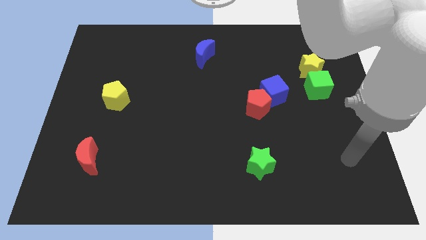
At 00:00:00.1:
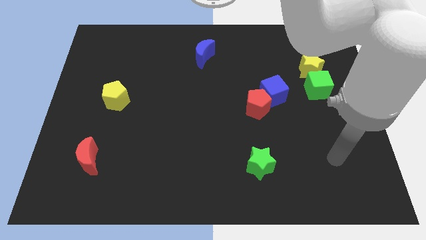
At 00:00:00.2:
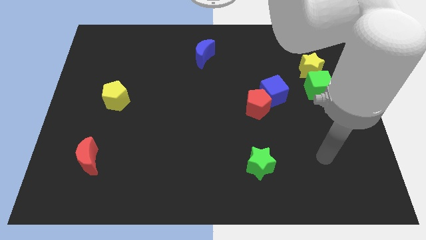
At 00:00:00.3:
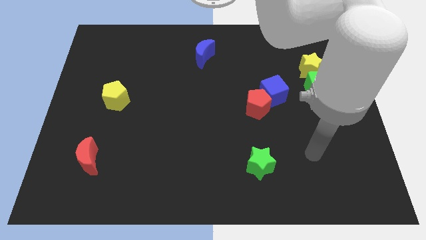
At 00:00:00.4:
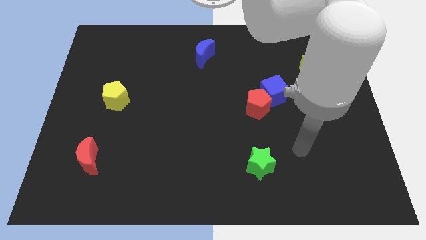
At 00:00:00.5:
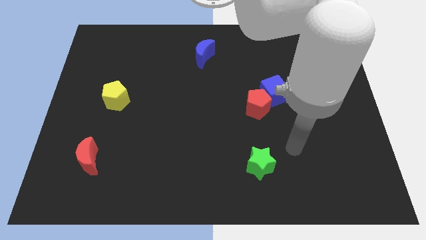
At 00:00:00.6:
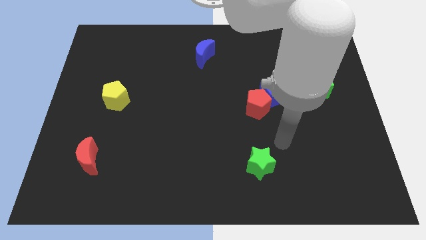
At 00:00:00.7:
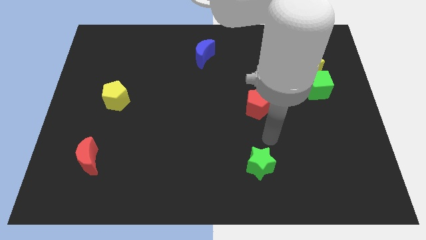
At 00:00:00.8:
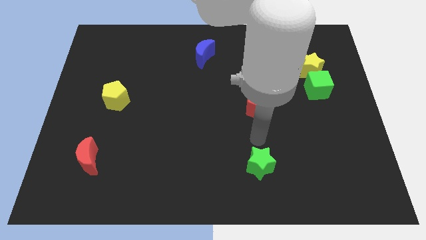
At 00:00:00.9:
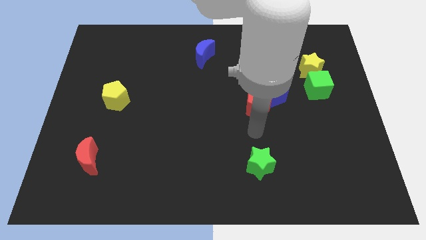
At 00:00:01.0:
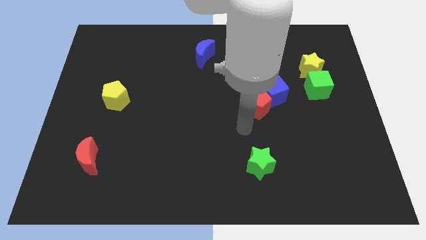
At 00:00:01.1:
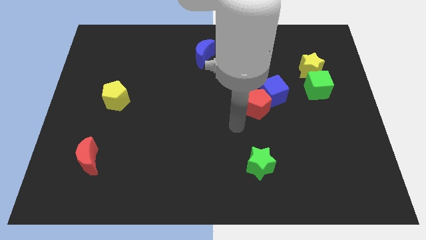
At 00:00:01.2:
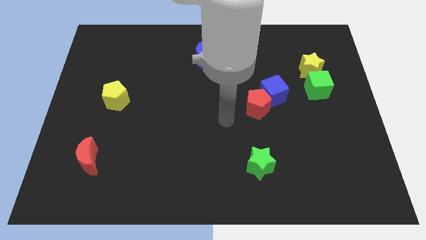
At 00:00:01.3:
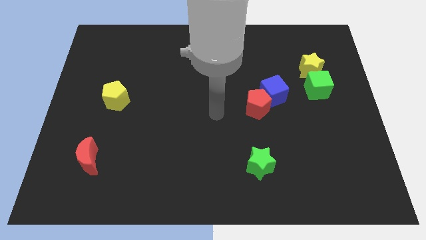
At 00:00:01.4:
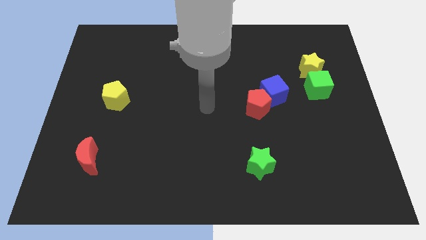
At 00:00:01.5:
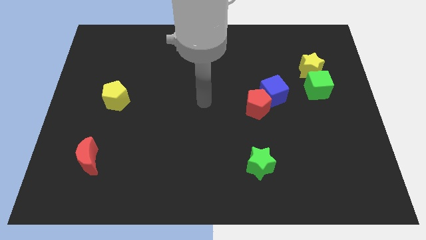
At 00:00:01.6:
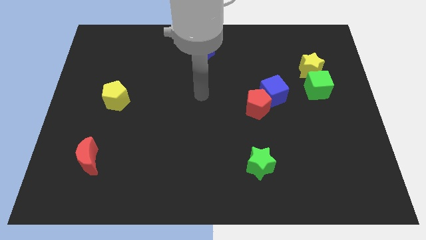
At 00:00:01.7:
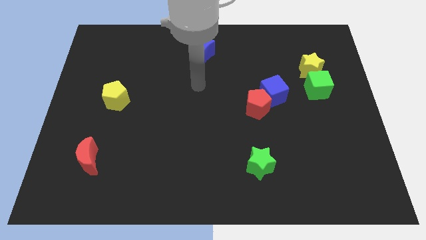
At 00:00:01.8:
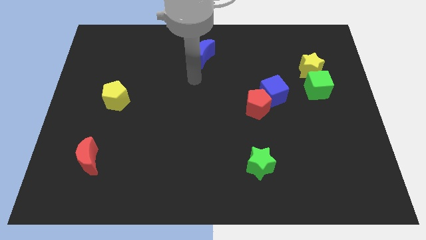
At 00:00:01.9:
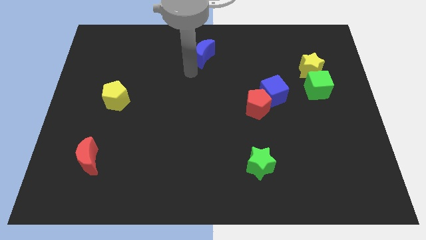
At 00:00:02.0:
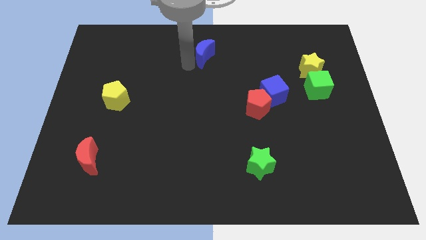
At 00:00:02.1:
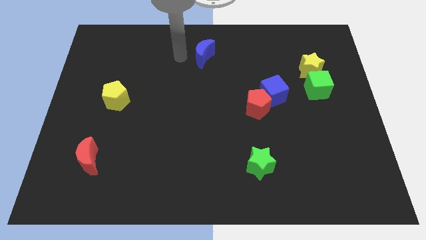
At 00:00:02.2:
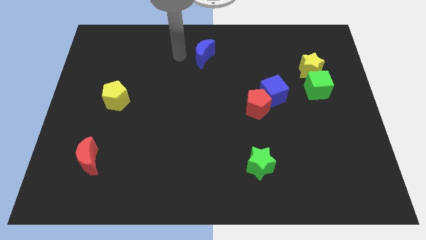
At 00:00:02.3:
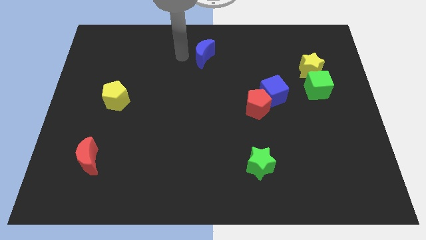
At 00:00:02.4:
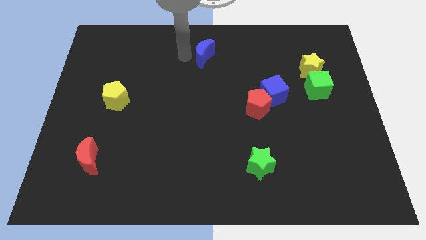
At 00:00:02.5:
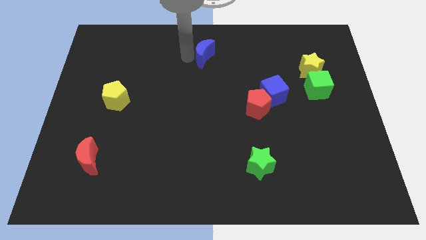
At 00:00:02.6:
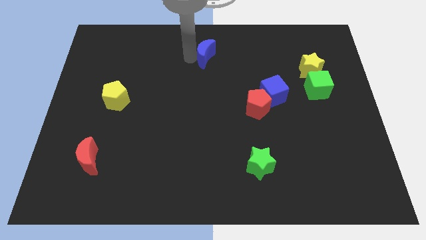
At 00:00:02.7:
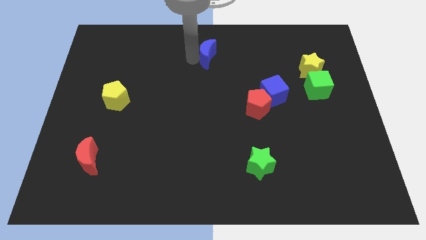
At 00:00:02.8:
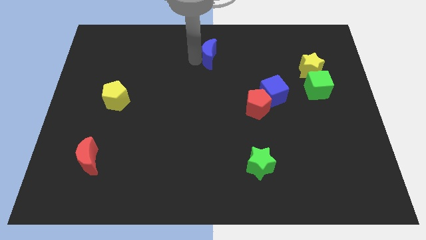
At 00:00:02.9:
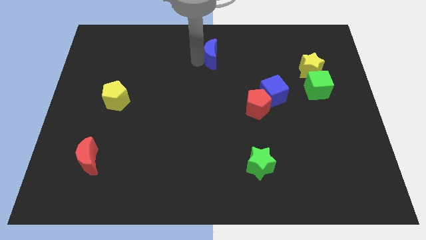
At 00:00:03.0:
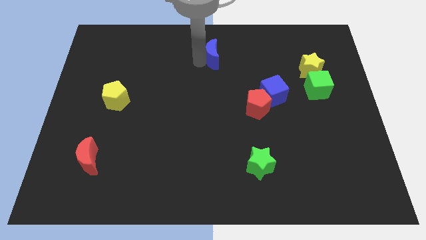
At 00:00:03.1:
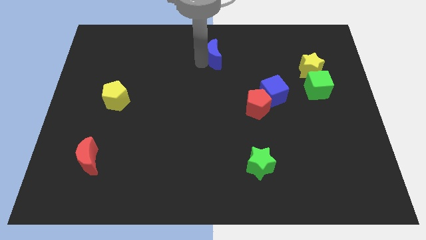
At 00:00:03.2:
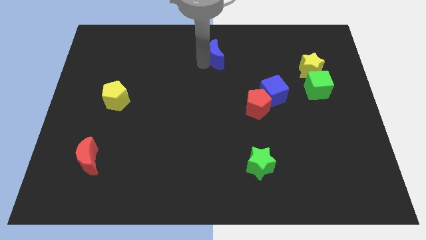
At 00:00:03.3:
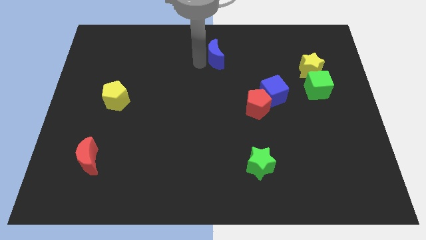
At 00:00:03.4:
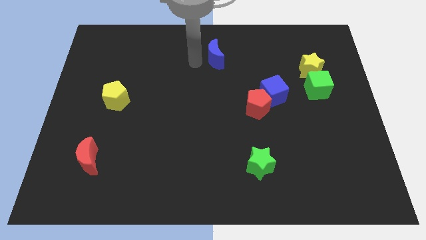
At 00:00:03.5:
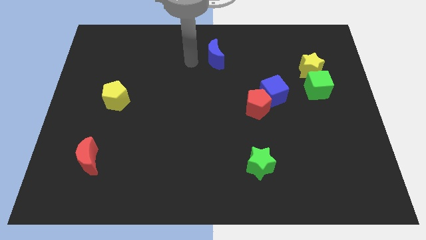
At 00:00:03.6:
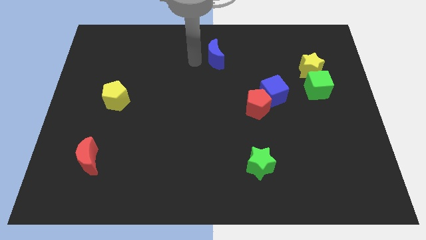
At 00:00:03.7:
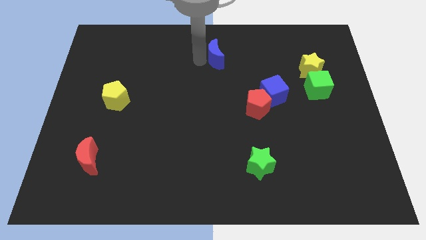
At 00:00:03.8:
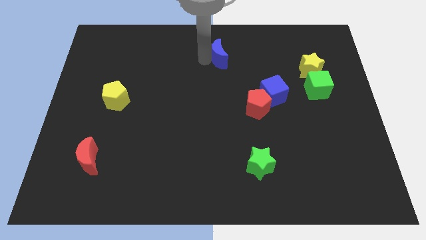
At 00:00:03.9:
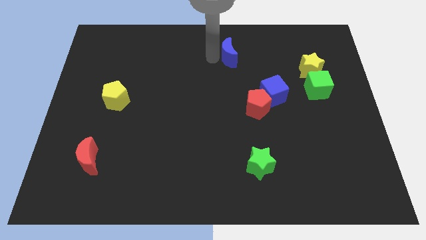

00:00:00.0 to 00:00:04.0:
slightly slide the blue moon to the right

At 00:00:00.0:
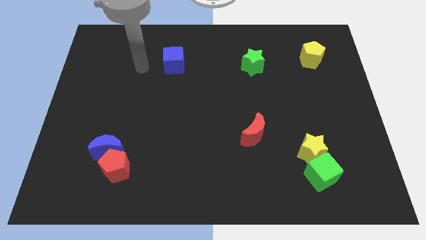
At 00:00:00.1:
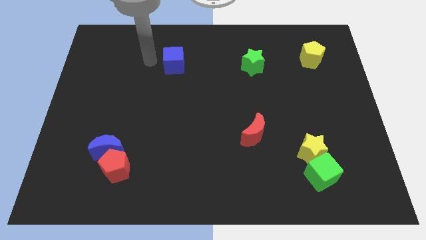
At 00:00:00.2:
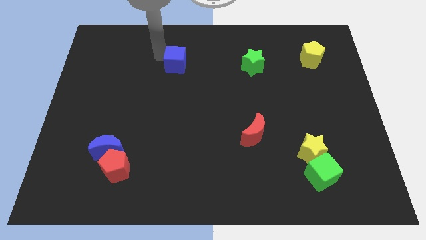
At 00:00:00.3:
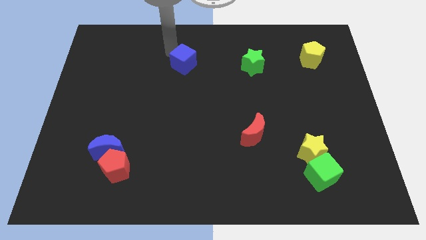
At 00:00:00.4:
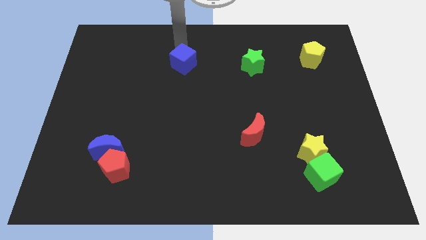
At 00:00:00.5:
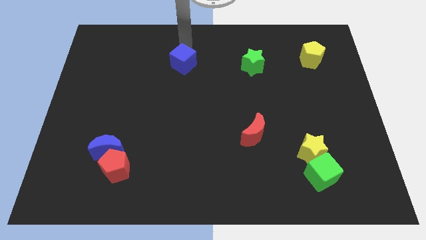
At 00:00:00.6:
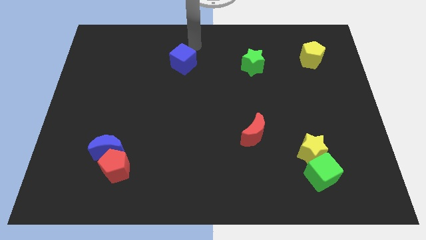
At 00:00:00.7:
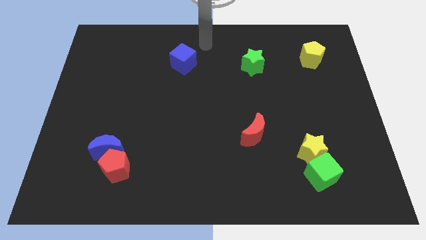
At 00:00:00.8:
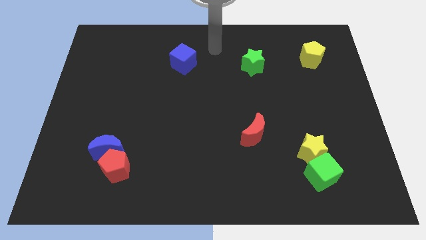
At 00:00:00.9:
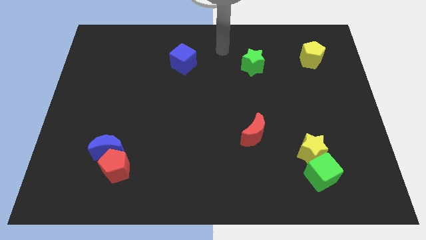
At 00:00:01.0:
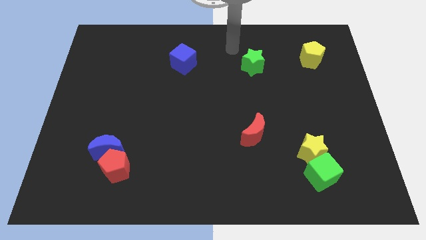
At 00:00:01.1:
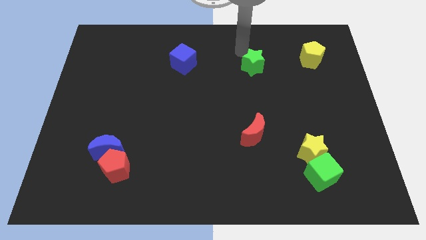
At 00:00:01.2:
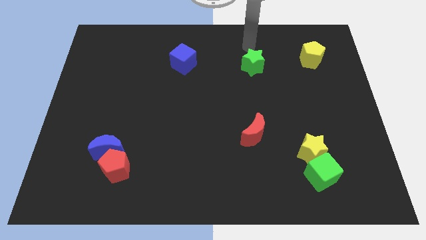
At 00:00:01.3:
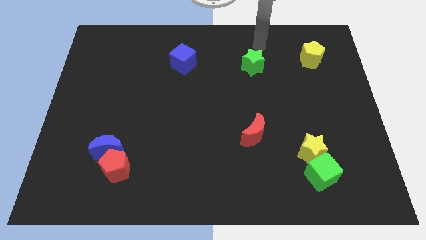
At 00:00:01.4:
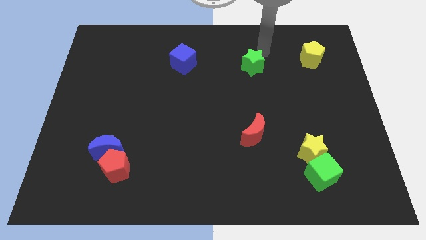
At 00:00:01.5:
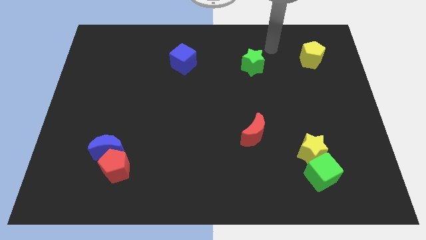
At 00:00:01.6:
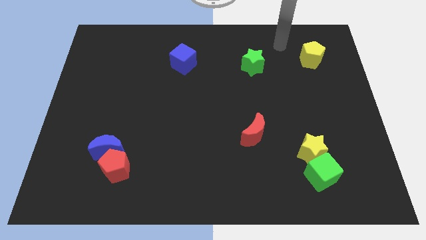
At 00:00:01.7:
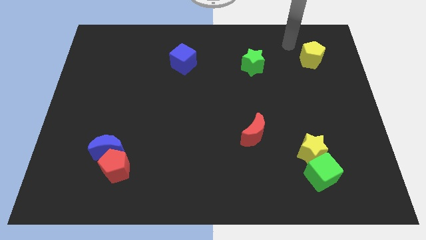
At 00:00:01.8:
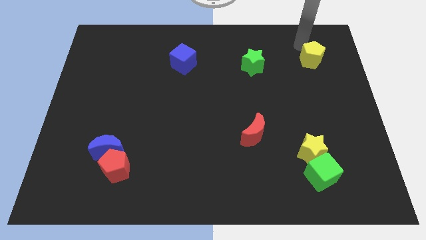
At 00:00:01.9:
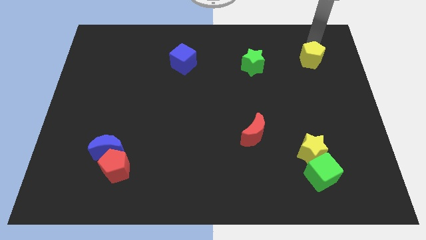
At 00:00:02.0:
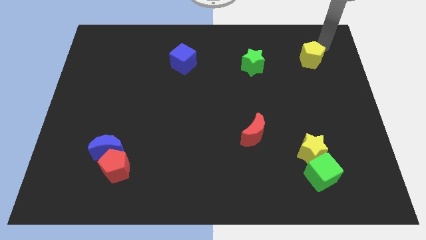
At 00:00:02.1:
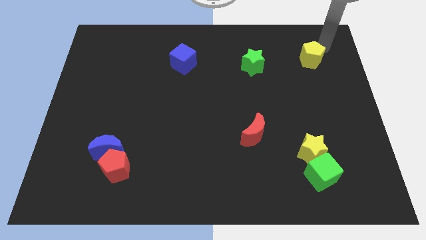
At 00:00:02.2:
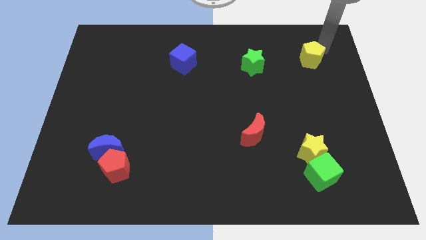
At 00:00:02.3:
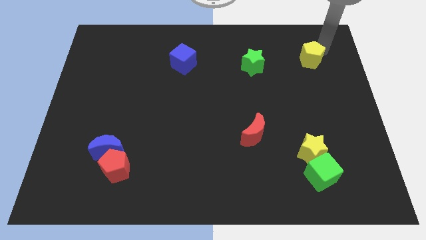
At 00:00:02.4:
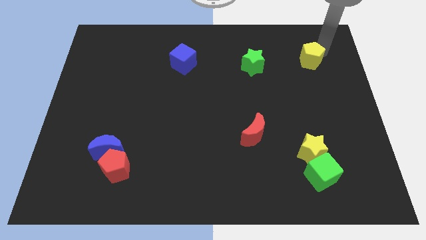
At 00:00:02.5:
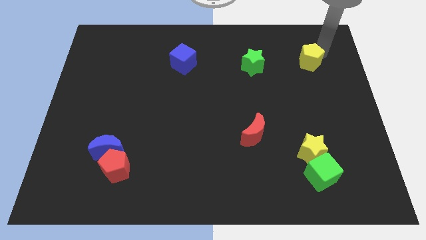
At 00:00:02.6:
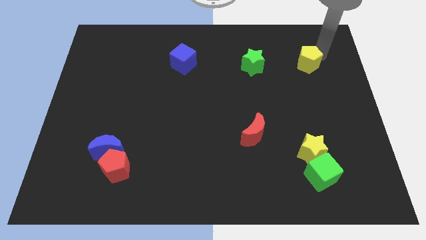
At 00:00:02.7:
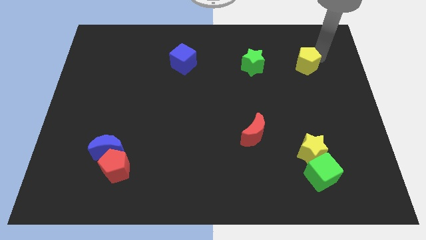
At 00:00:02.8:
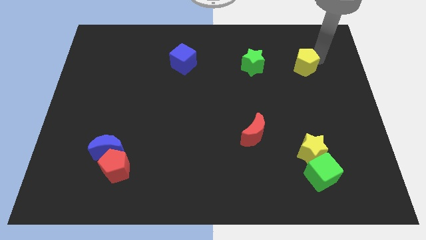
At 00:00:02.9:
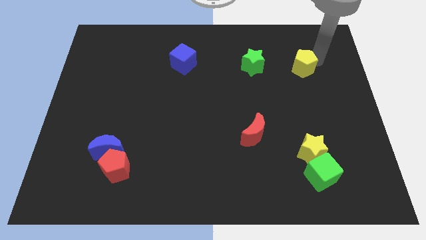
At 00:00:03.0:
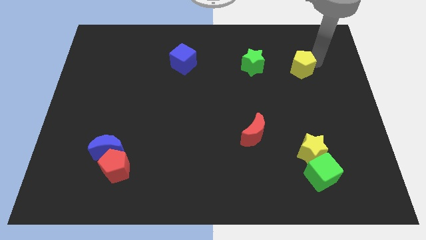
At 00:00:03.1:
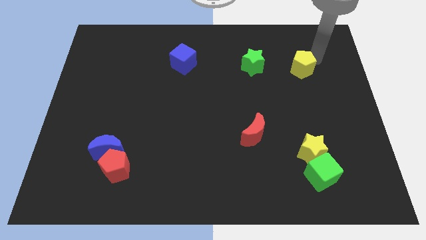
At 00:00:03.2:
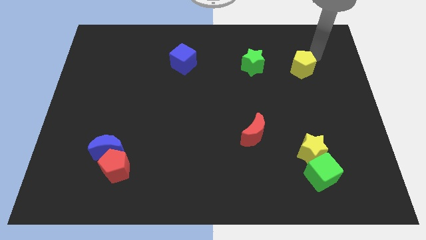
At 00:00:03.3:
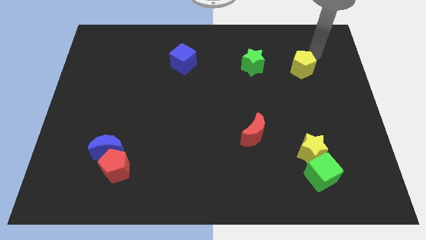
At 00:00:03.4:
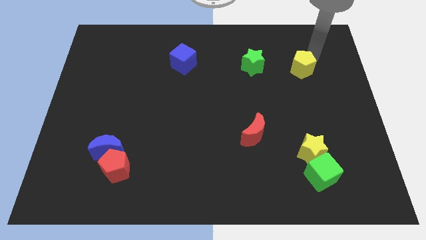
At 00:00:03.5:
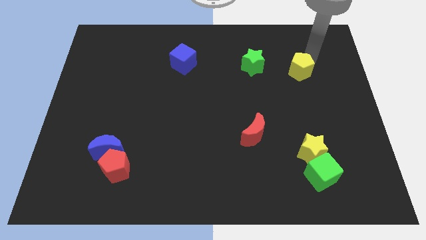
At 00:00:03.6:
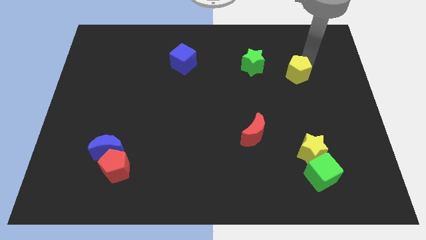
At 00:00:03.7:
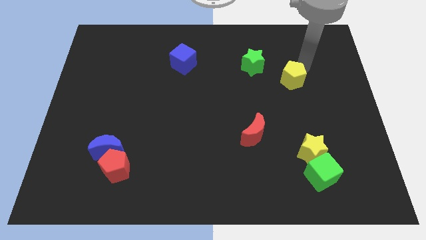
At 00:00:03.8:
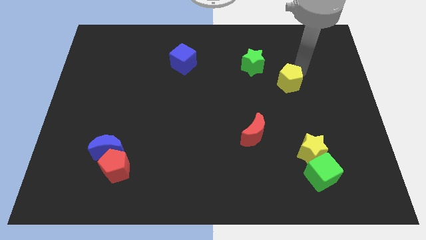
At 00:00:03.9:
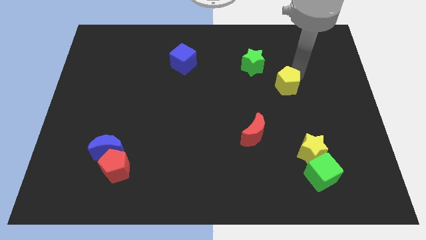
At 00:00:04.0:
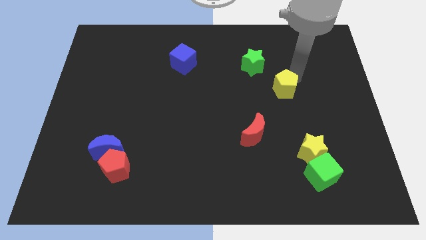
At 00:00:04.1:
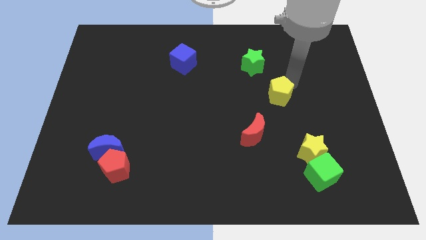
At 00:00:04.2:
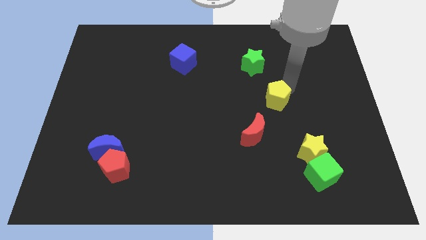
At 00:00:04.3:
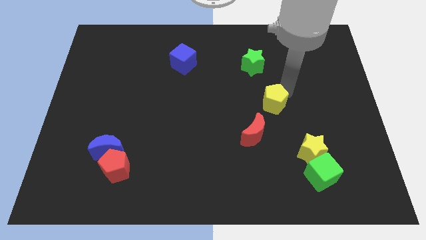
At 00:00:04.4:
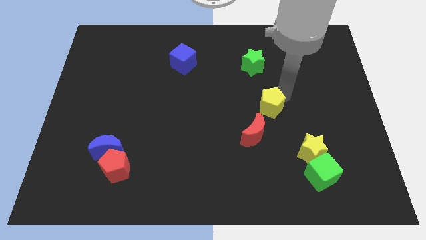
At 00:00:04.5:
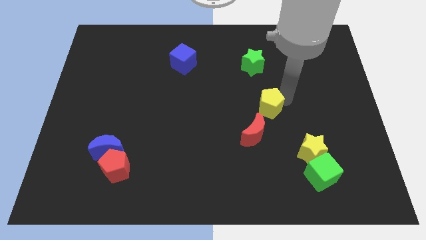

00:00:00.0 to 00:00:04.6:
move the yellow pentagon downwards and left diagonally
